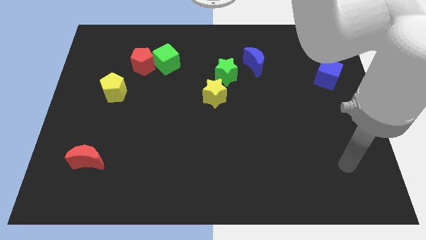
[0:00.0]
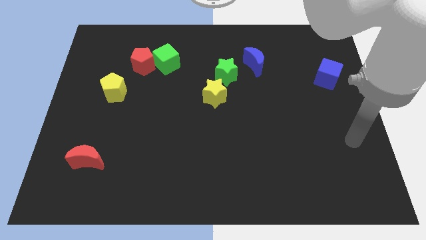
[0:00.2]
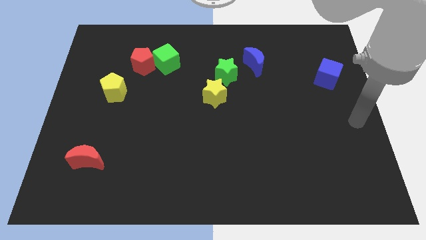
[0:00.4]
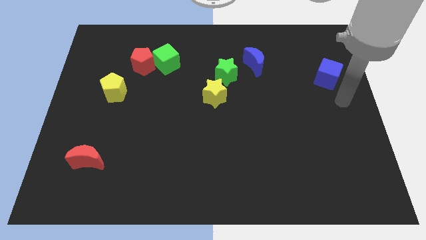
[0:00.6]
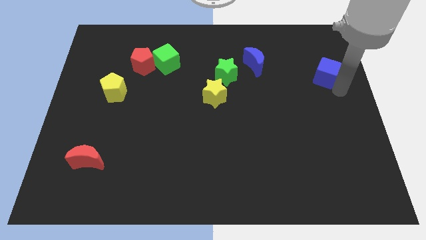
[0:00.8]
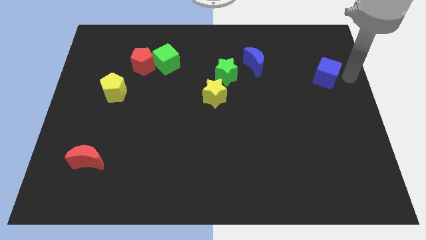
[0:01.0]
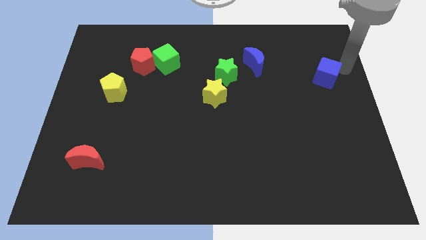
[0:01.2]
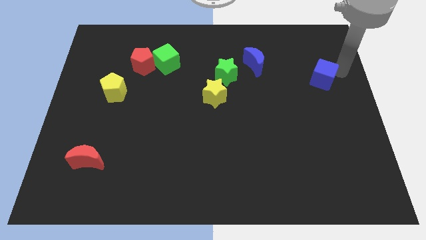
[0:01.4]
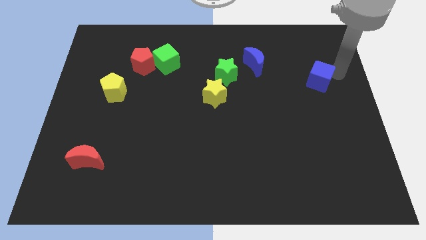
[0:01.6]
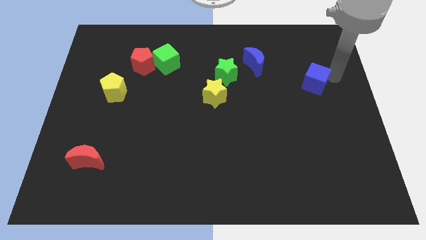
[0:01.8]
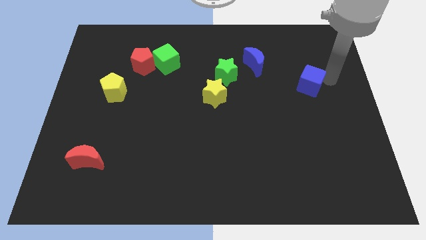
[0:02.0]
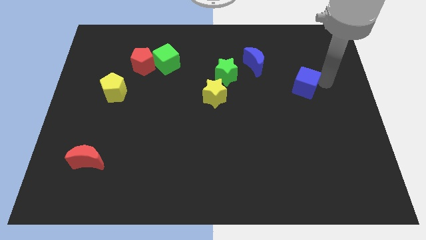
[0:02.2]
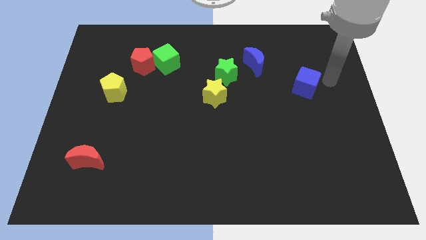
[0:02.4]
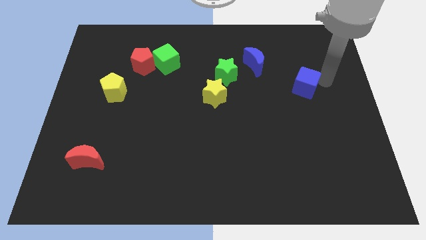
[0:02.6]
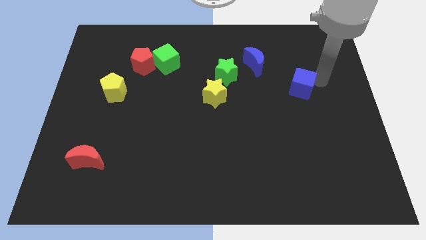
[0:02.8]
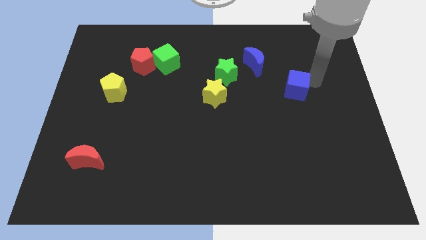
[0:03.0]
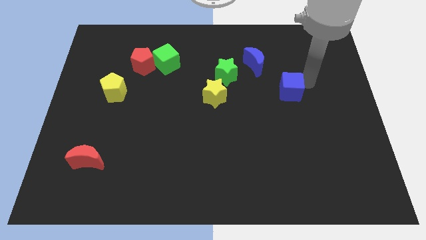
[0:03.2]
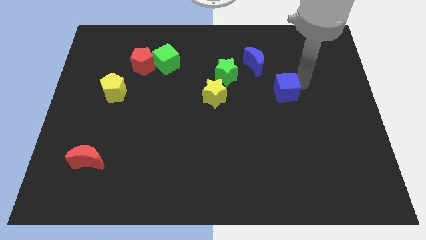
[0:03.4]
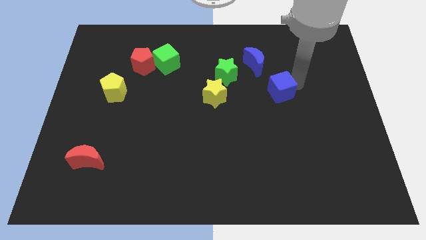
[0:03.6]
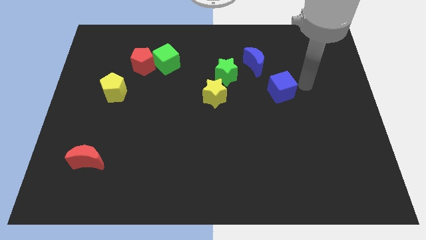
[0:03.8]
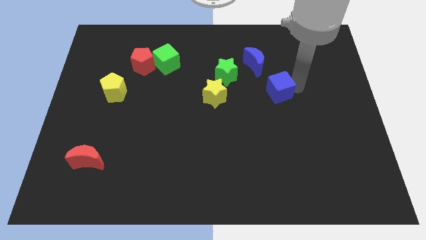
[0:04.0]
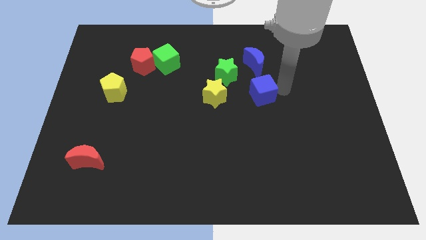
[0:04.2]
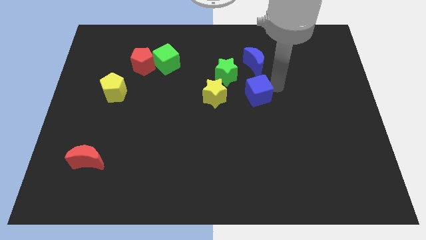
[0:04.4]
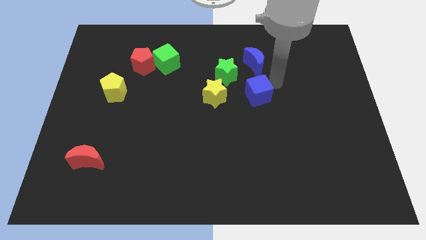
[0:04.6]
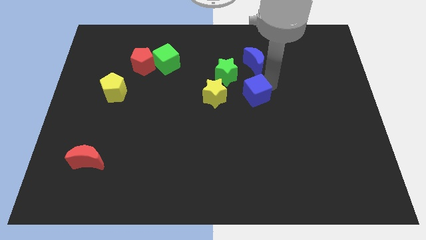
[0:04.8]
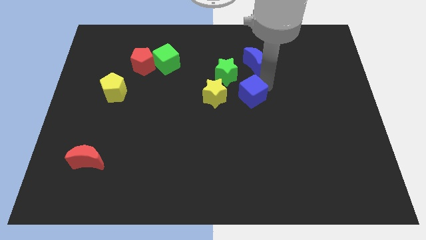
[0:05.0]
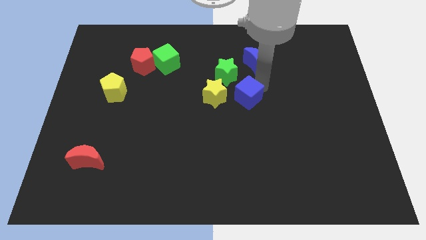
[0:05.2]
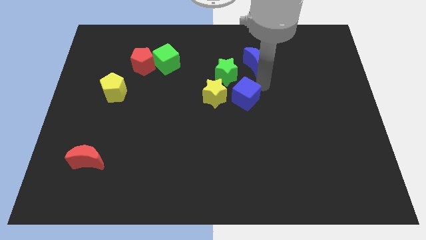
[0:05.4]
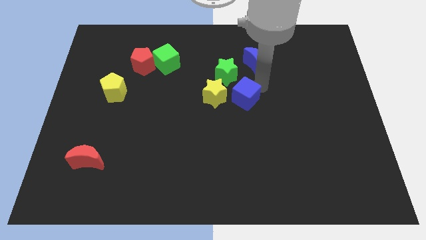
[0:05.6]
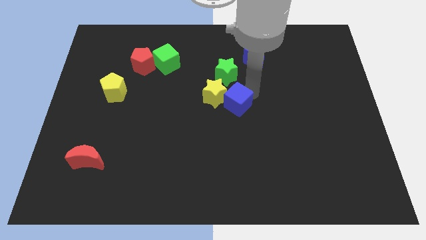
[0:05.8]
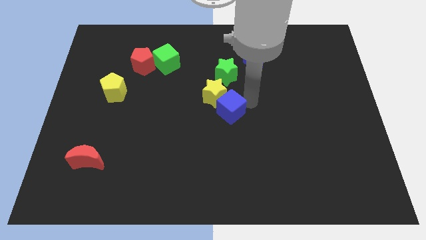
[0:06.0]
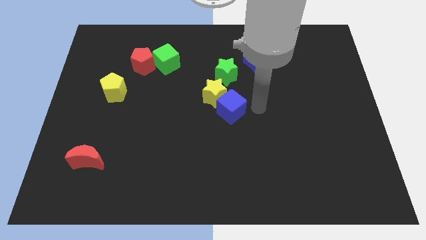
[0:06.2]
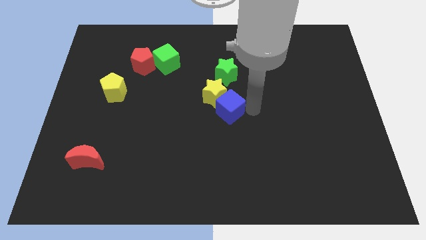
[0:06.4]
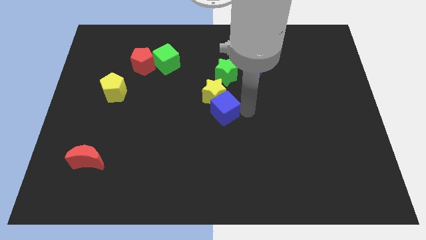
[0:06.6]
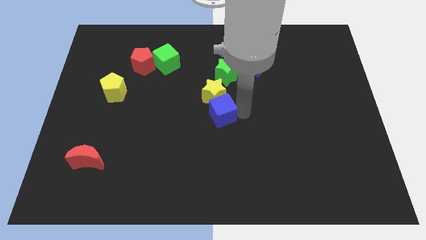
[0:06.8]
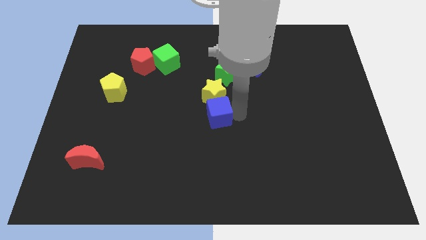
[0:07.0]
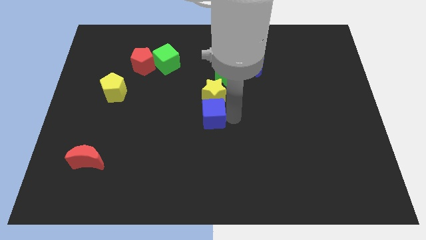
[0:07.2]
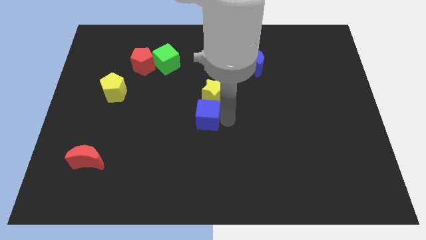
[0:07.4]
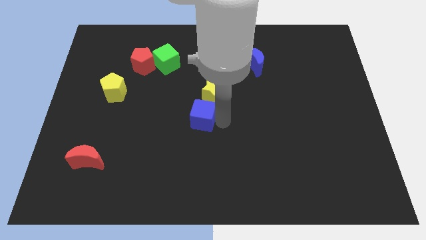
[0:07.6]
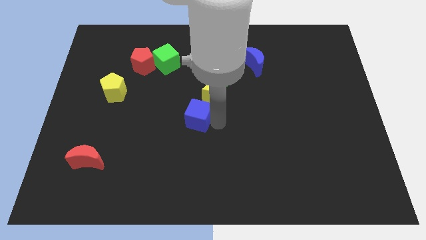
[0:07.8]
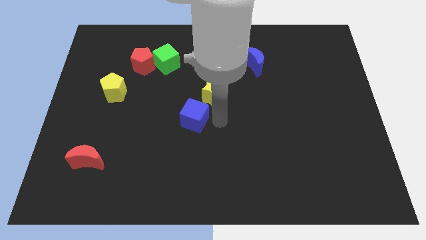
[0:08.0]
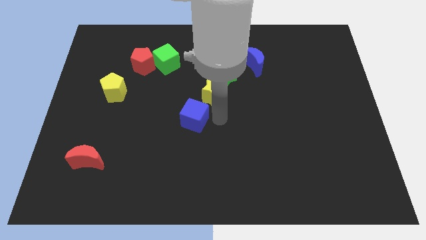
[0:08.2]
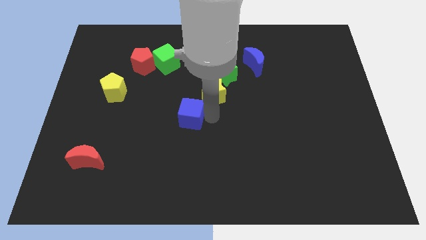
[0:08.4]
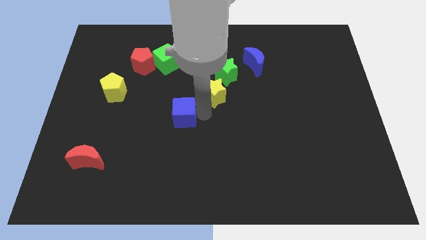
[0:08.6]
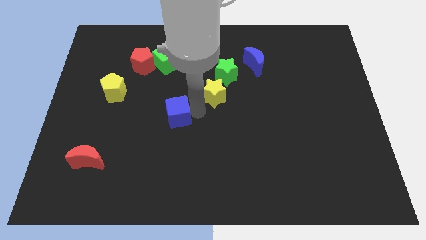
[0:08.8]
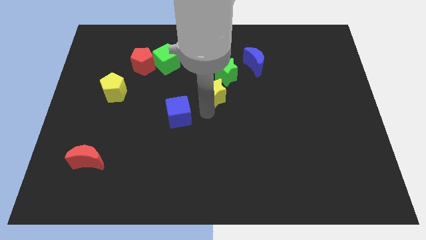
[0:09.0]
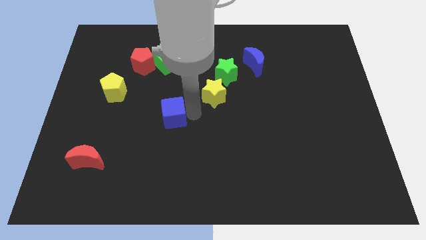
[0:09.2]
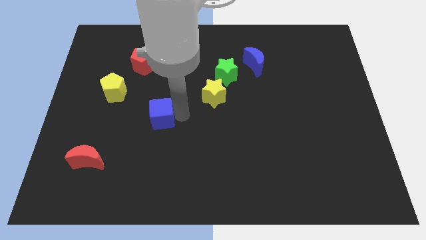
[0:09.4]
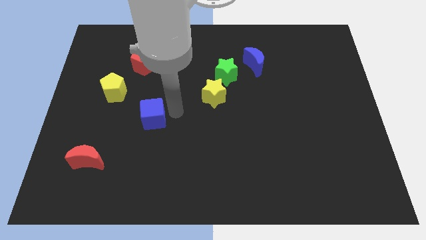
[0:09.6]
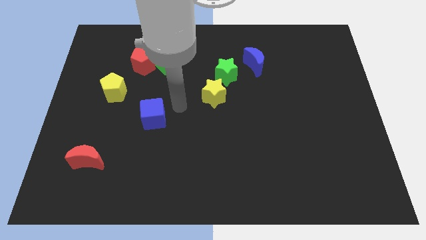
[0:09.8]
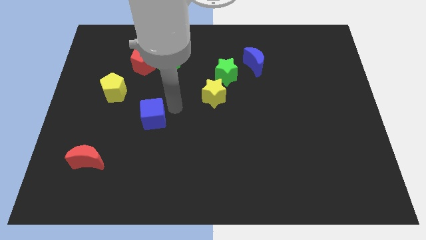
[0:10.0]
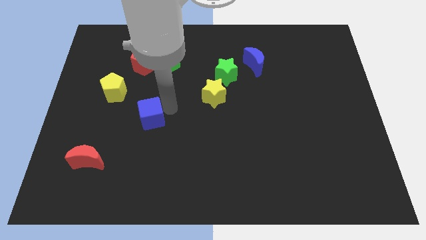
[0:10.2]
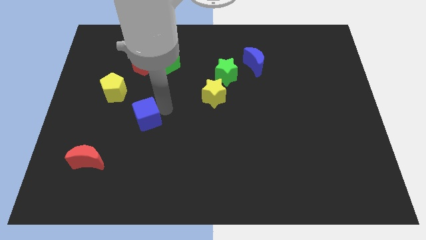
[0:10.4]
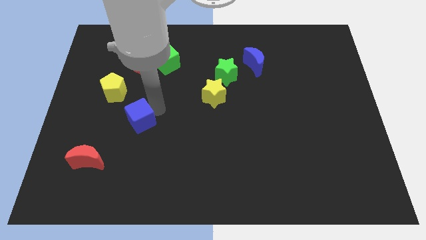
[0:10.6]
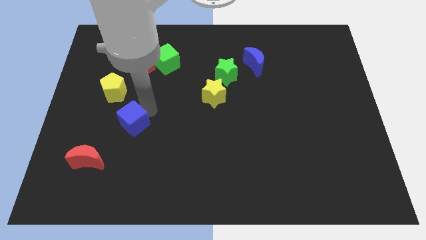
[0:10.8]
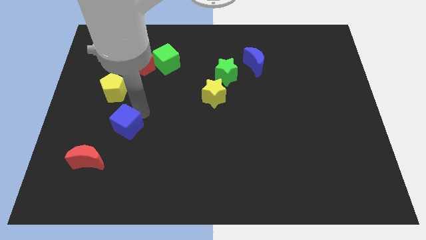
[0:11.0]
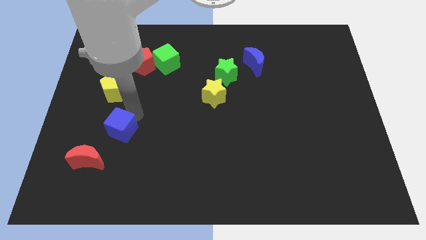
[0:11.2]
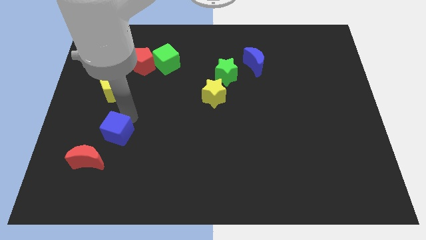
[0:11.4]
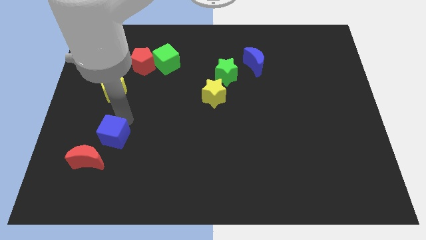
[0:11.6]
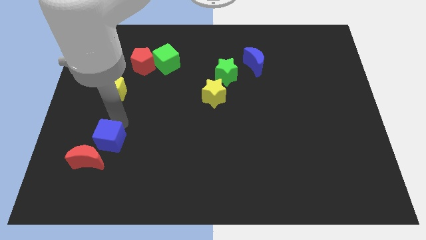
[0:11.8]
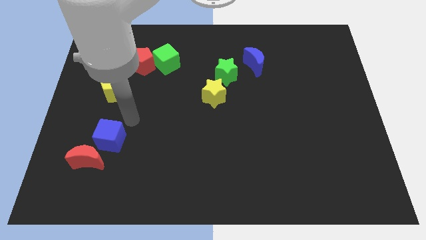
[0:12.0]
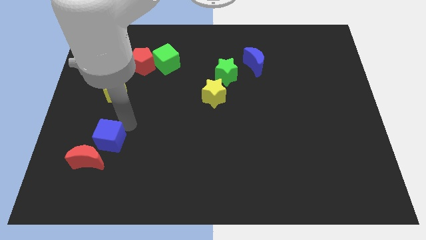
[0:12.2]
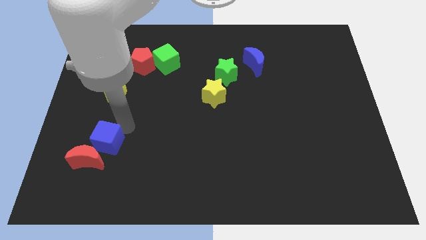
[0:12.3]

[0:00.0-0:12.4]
move the blue cube towards the red moon

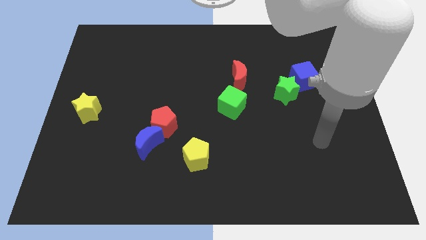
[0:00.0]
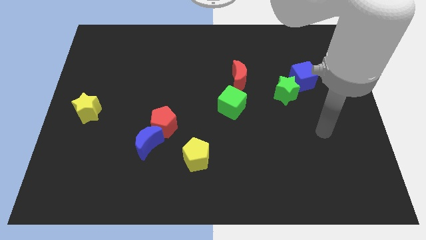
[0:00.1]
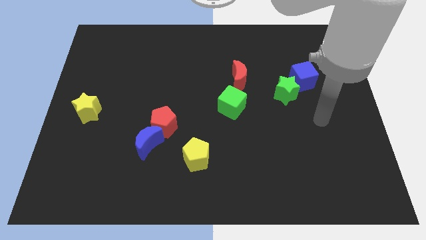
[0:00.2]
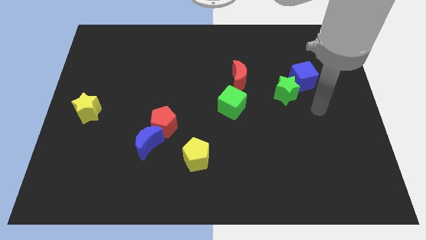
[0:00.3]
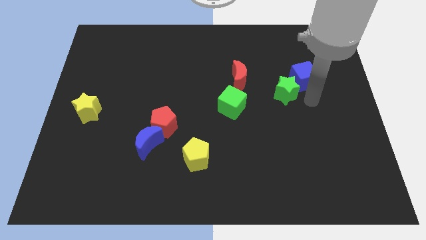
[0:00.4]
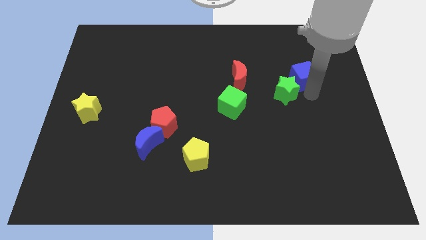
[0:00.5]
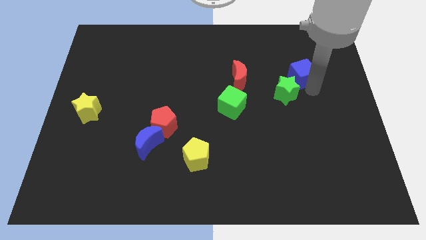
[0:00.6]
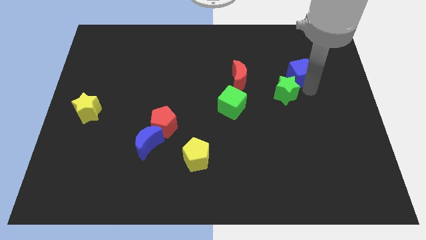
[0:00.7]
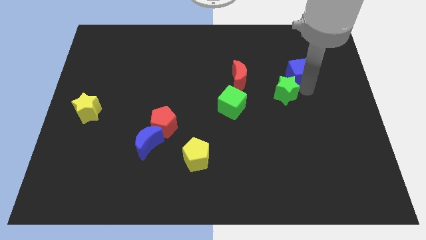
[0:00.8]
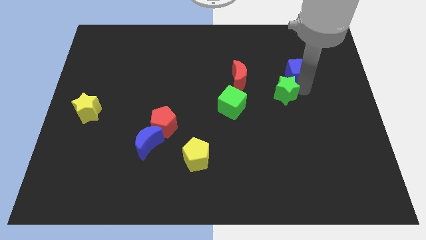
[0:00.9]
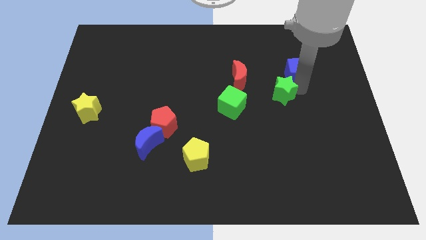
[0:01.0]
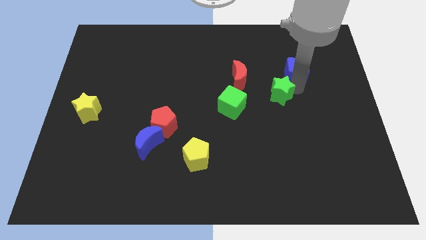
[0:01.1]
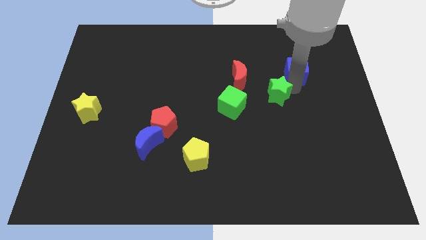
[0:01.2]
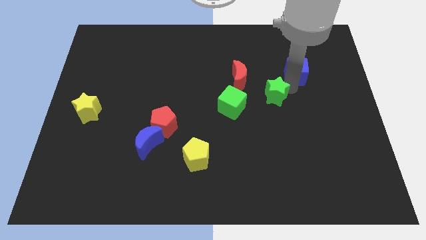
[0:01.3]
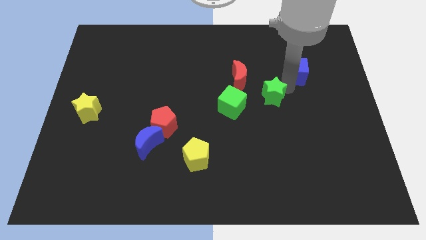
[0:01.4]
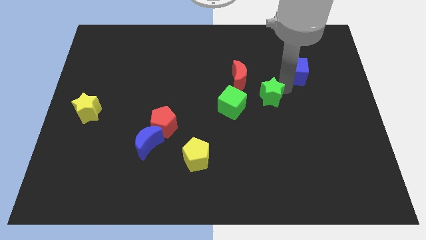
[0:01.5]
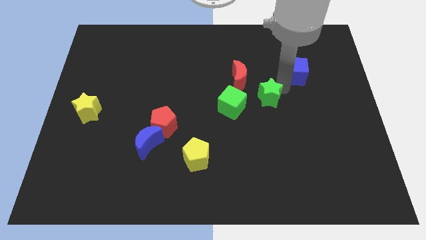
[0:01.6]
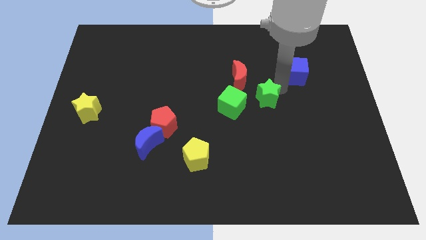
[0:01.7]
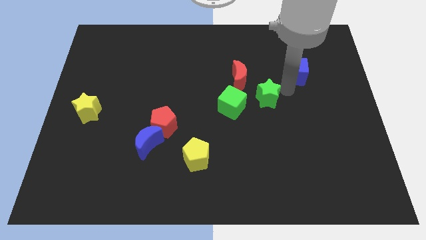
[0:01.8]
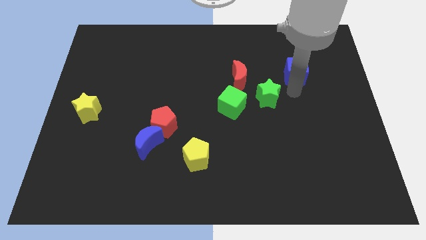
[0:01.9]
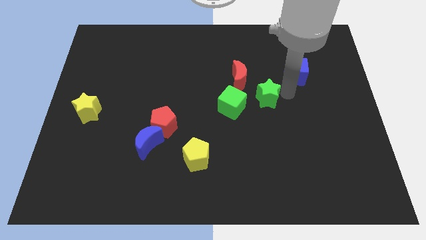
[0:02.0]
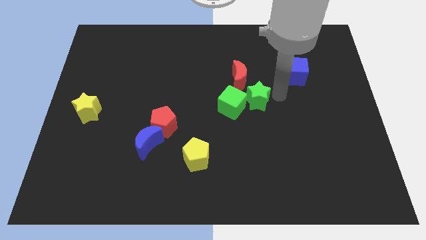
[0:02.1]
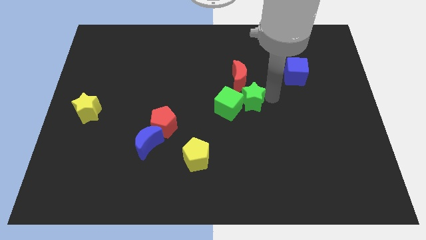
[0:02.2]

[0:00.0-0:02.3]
put the green star to the green cube
